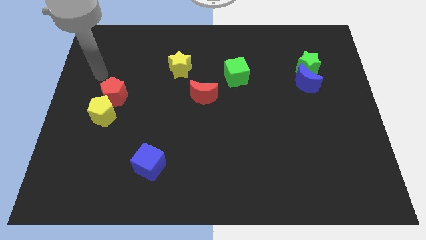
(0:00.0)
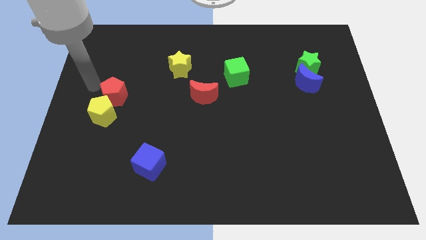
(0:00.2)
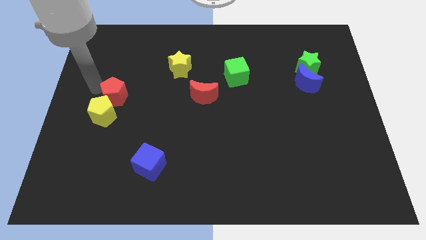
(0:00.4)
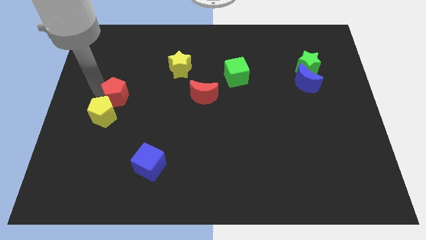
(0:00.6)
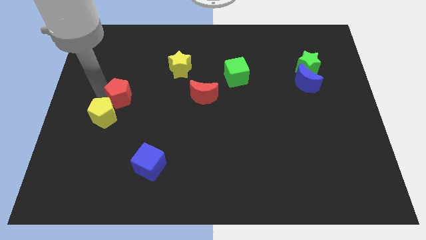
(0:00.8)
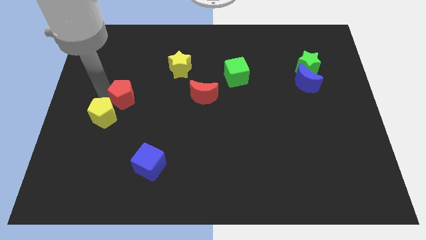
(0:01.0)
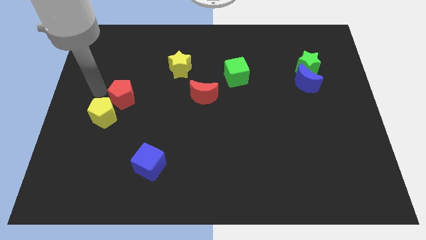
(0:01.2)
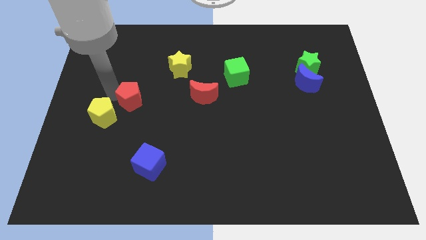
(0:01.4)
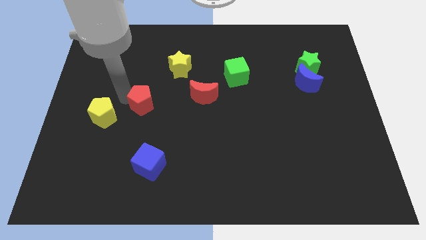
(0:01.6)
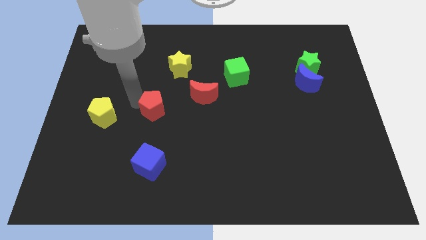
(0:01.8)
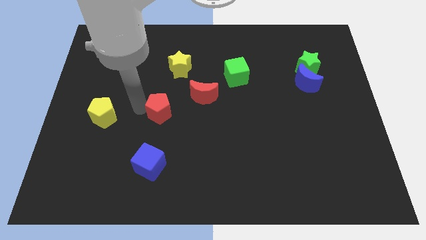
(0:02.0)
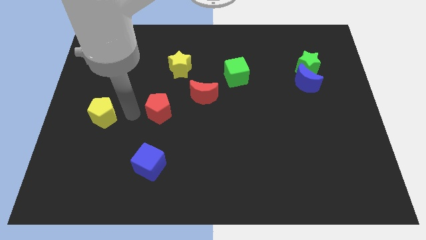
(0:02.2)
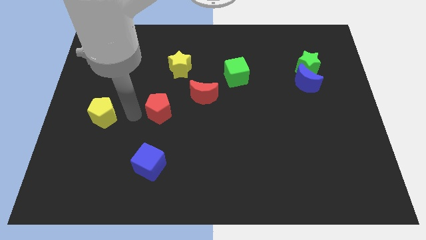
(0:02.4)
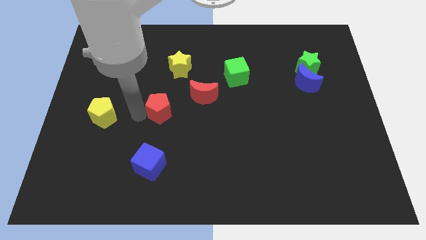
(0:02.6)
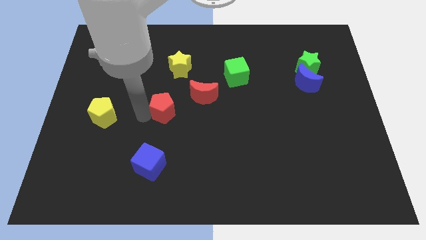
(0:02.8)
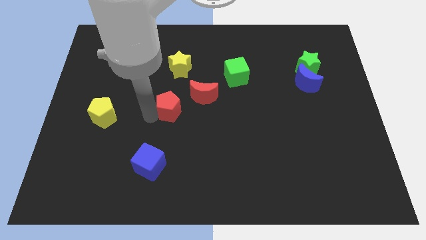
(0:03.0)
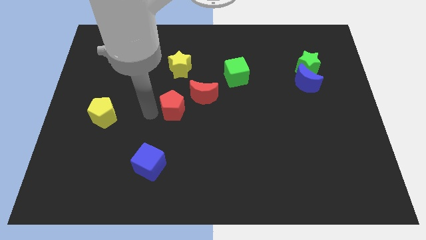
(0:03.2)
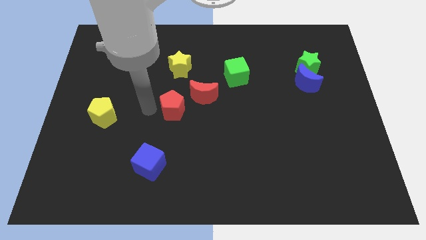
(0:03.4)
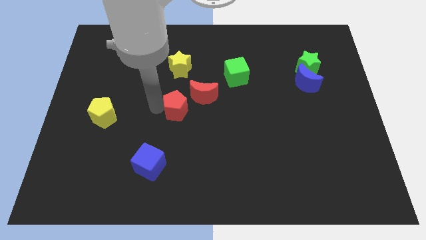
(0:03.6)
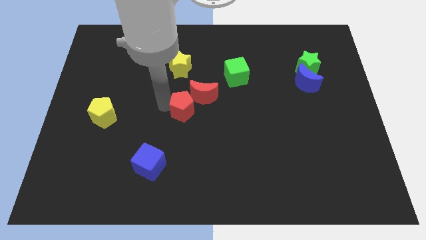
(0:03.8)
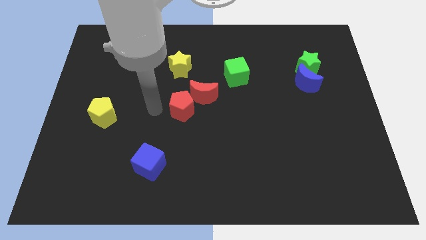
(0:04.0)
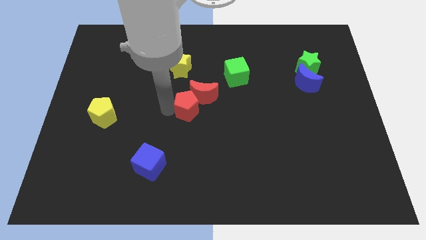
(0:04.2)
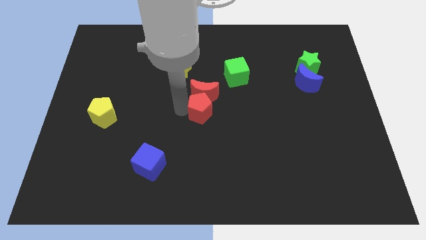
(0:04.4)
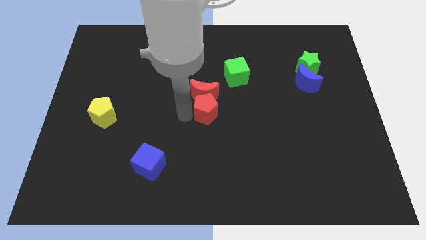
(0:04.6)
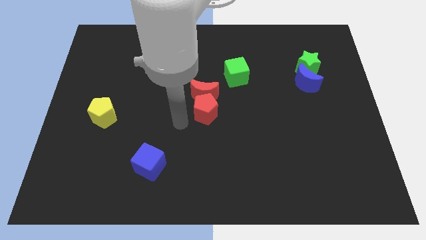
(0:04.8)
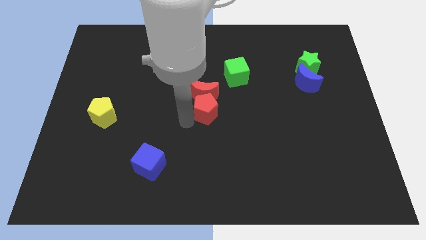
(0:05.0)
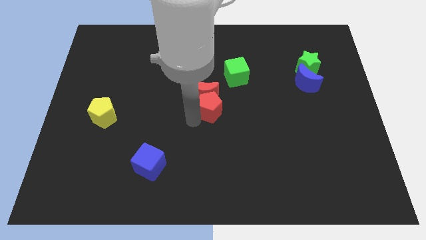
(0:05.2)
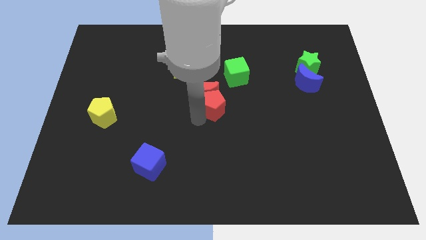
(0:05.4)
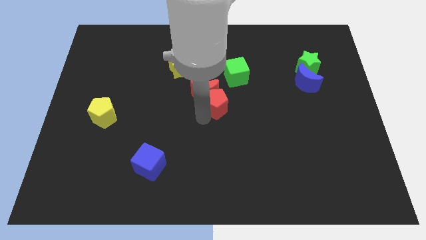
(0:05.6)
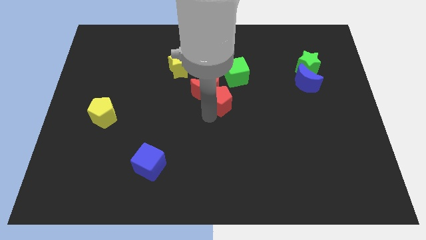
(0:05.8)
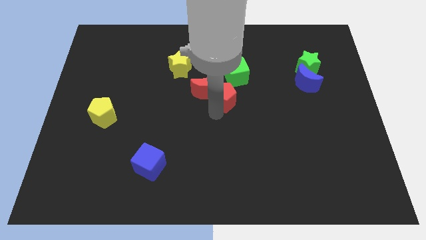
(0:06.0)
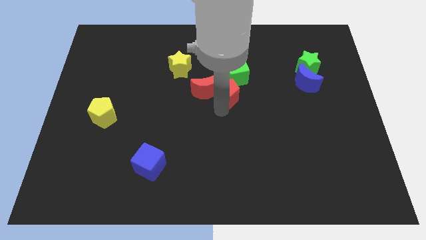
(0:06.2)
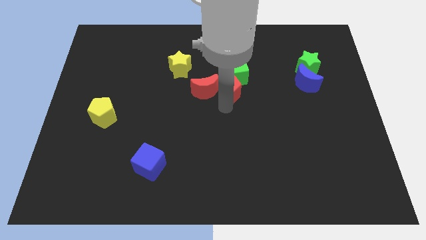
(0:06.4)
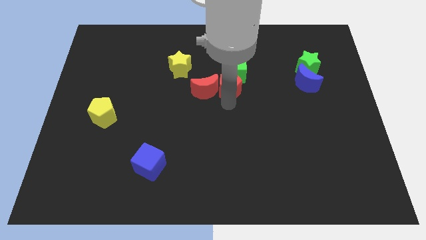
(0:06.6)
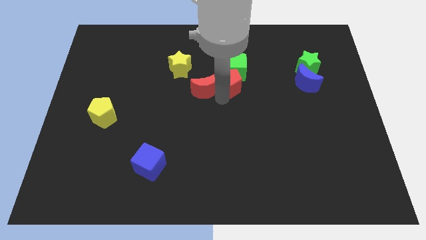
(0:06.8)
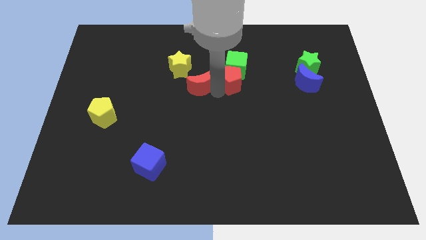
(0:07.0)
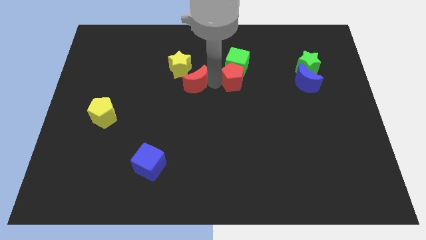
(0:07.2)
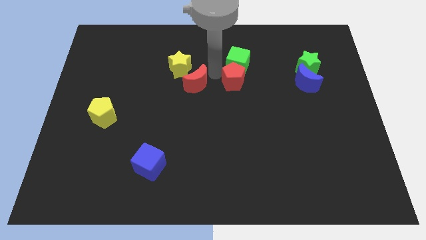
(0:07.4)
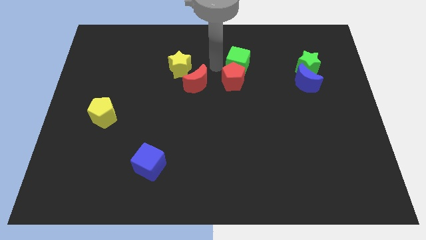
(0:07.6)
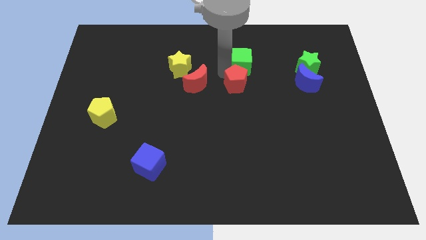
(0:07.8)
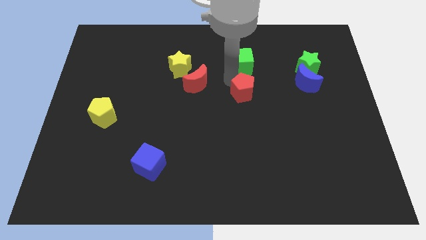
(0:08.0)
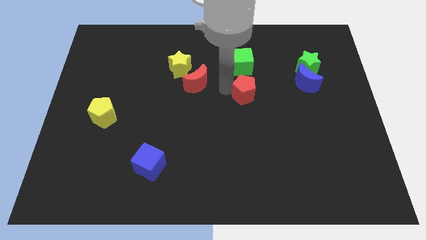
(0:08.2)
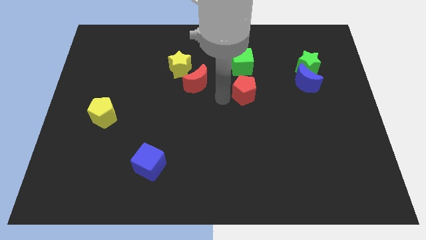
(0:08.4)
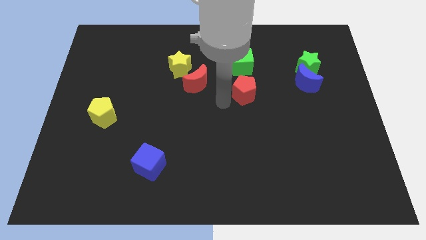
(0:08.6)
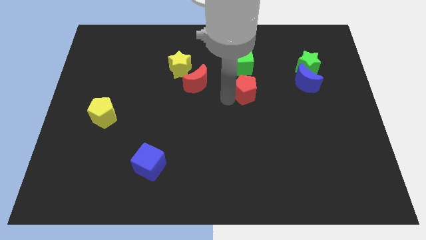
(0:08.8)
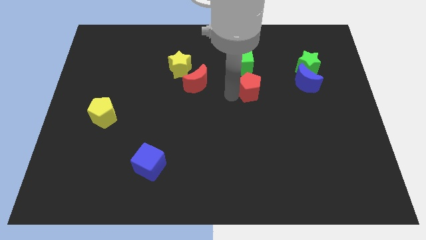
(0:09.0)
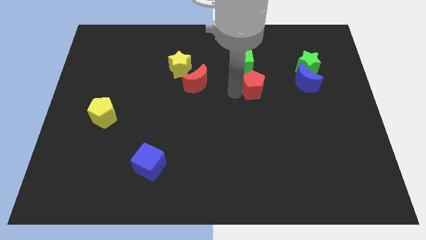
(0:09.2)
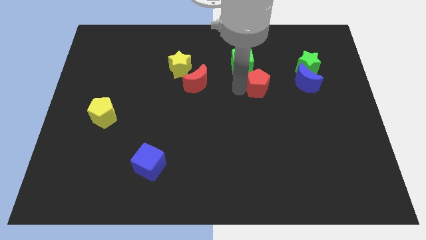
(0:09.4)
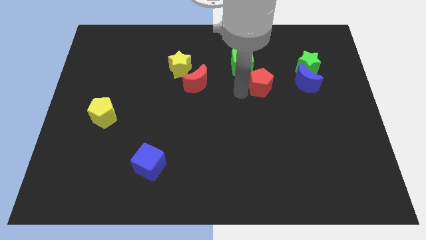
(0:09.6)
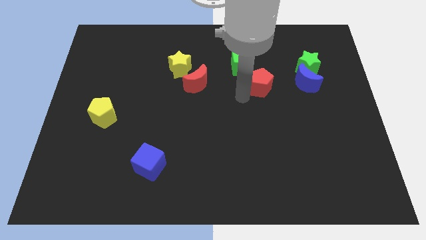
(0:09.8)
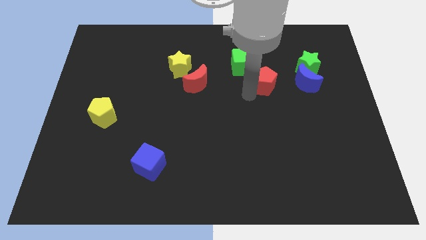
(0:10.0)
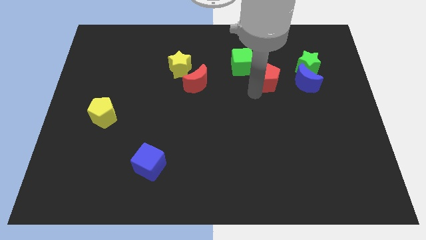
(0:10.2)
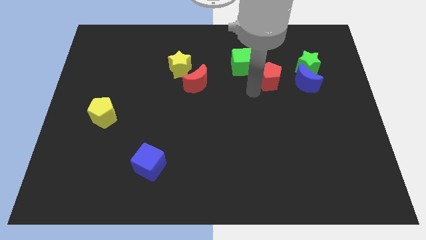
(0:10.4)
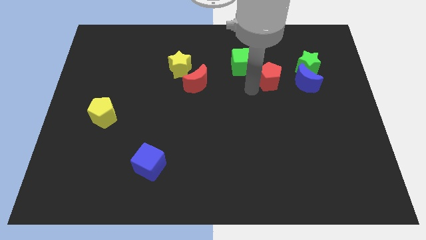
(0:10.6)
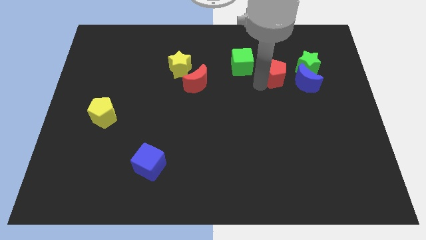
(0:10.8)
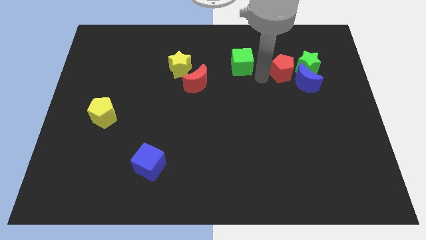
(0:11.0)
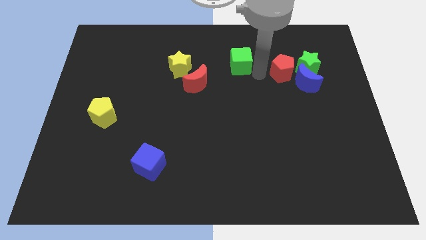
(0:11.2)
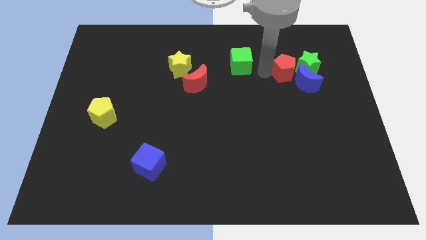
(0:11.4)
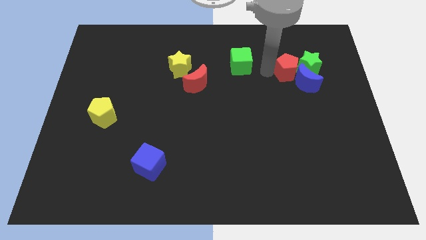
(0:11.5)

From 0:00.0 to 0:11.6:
put the red pentagon towards the green star

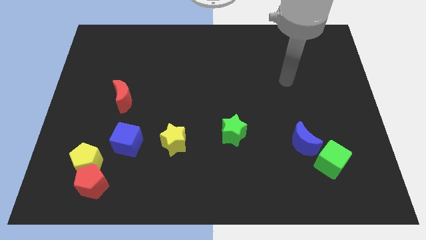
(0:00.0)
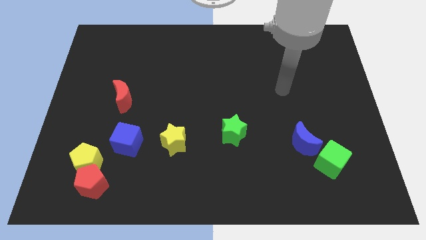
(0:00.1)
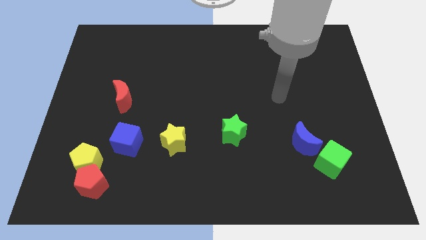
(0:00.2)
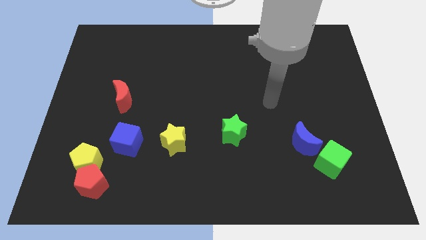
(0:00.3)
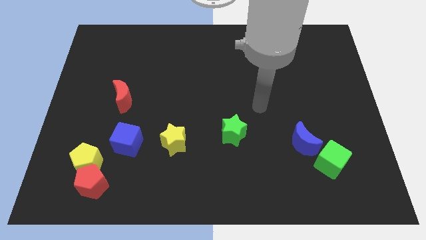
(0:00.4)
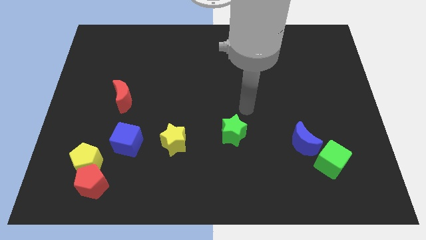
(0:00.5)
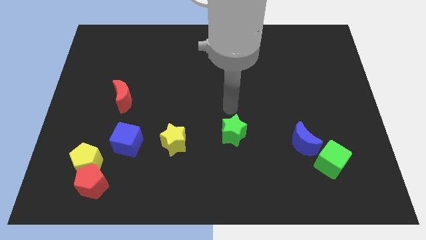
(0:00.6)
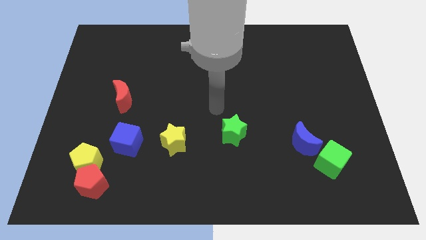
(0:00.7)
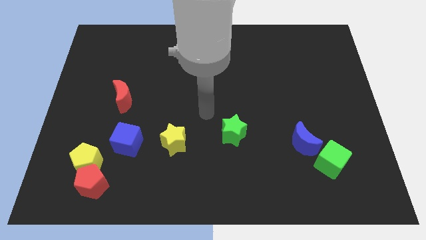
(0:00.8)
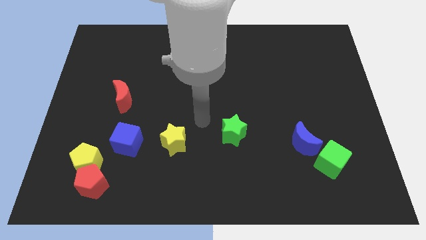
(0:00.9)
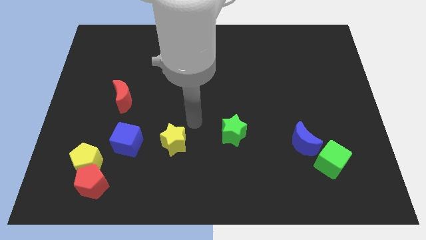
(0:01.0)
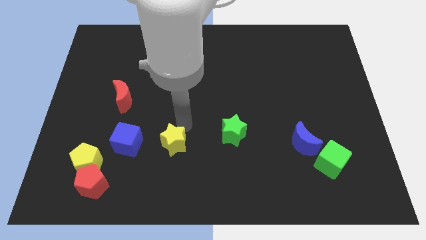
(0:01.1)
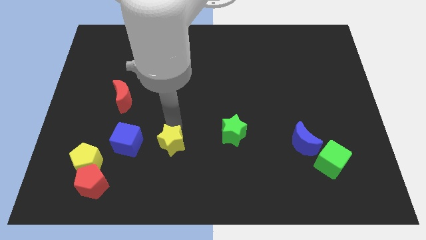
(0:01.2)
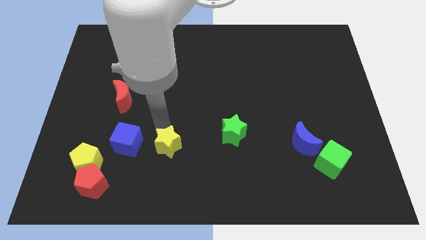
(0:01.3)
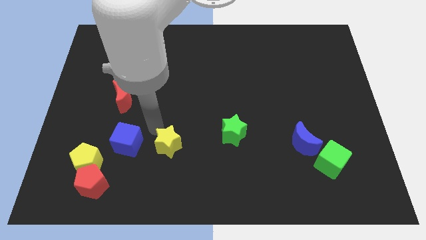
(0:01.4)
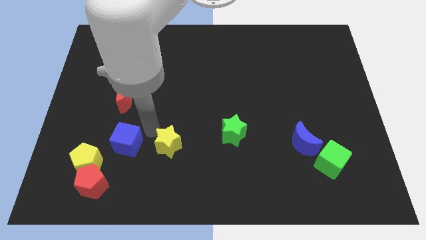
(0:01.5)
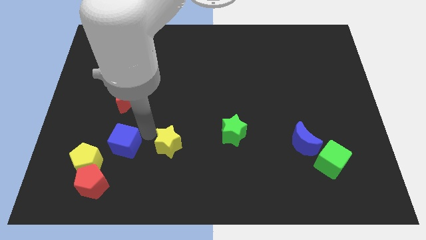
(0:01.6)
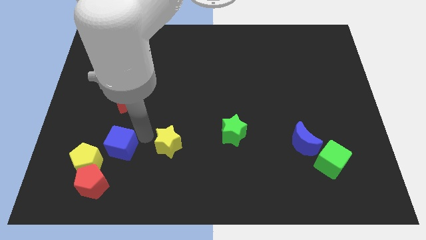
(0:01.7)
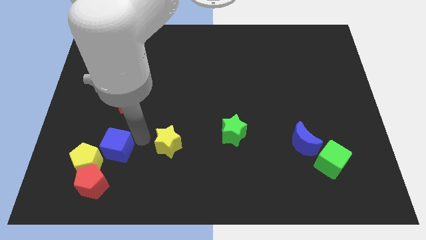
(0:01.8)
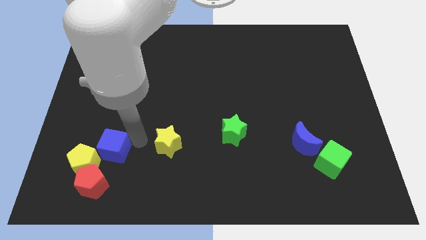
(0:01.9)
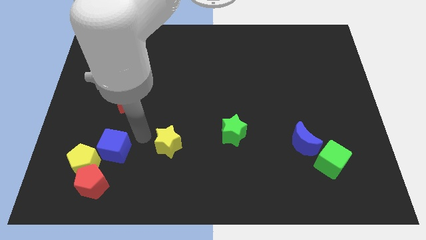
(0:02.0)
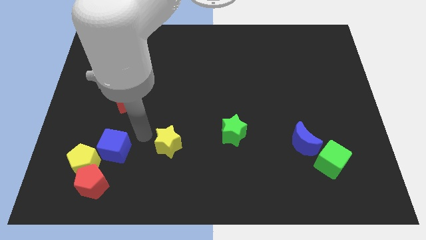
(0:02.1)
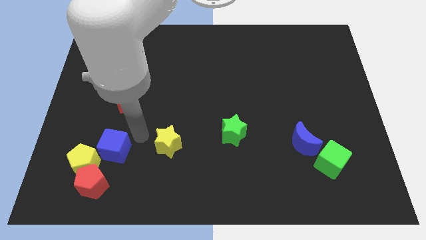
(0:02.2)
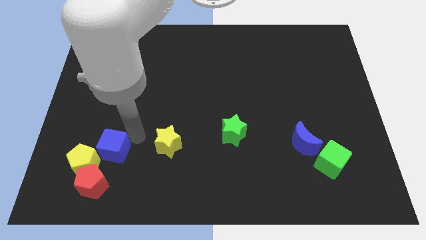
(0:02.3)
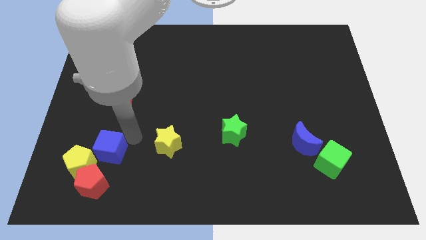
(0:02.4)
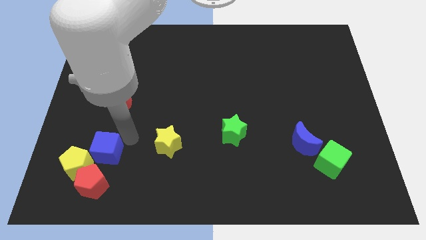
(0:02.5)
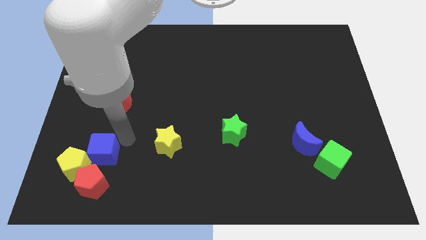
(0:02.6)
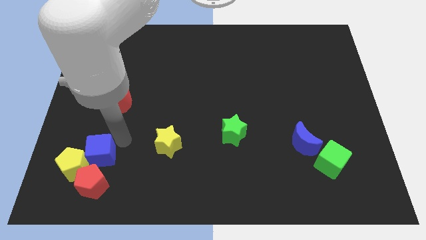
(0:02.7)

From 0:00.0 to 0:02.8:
slide the blue cube next to the yellow pentagon
